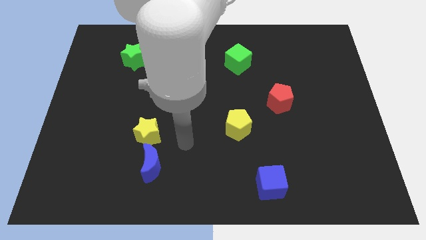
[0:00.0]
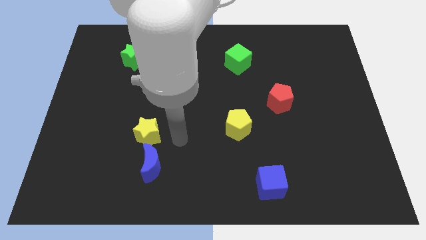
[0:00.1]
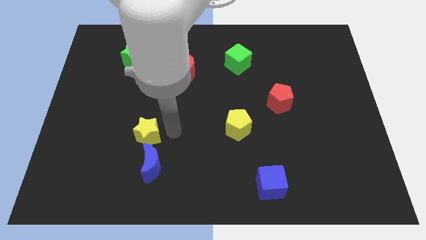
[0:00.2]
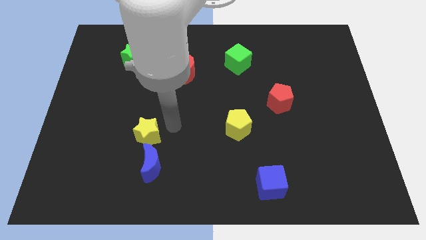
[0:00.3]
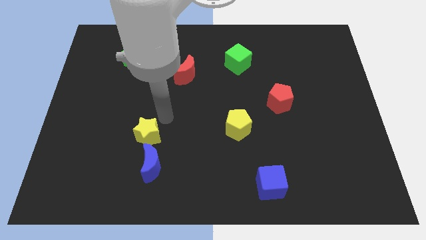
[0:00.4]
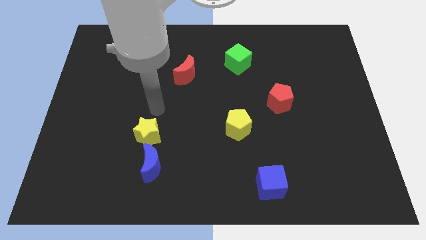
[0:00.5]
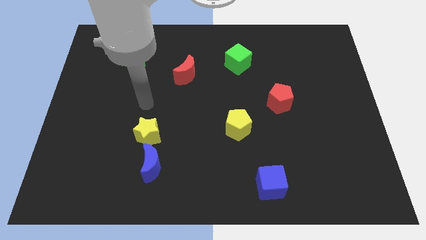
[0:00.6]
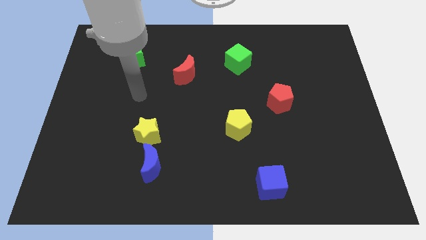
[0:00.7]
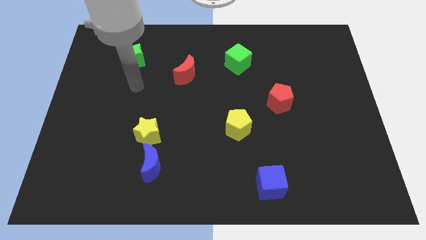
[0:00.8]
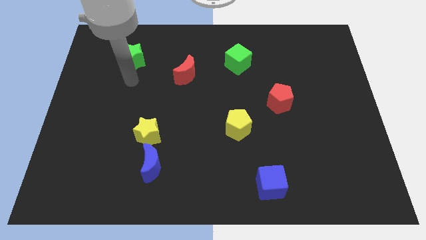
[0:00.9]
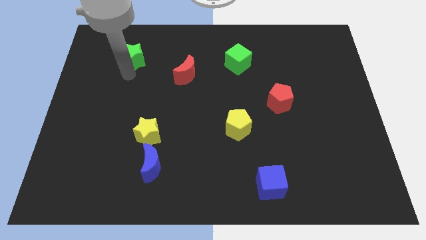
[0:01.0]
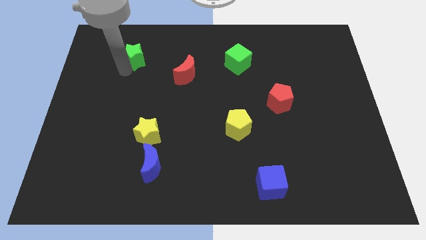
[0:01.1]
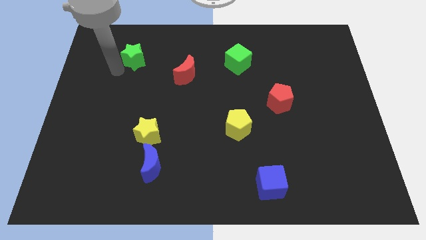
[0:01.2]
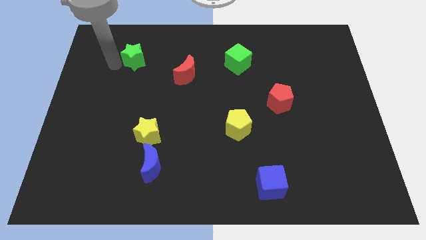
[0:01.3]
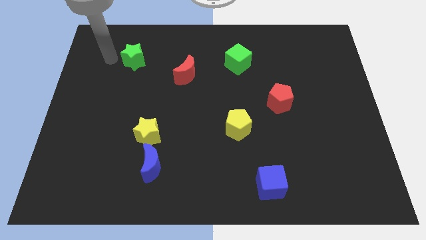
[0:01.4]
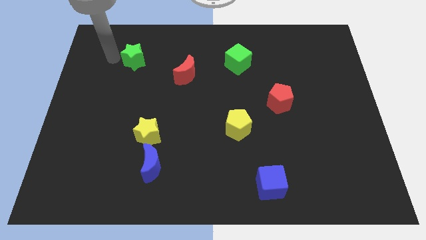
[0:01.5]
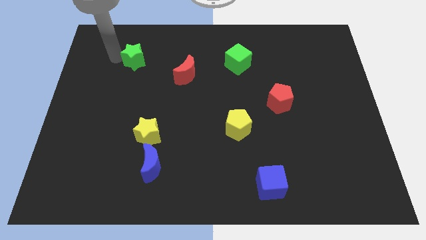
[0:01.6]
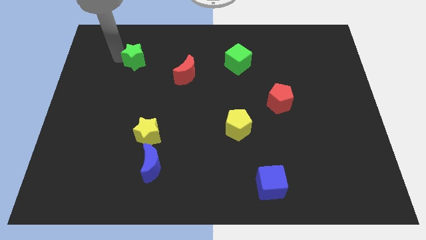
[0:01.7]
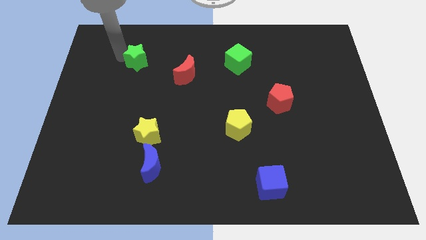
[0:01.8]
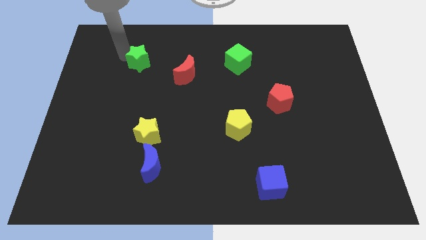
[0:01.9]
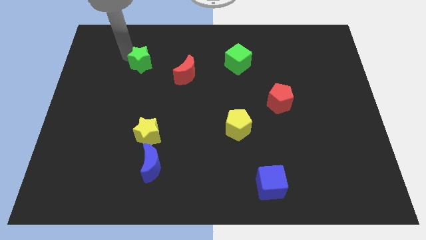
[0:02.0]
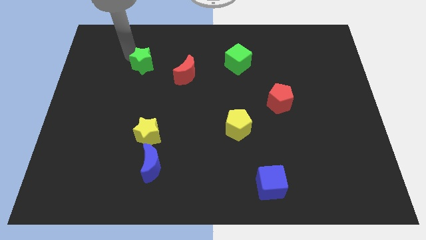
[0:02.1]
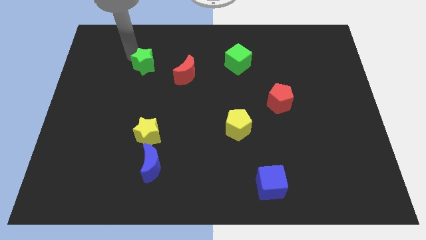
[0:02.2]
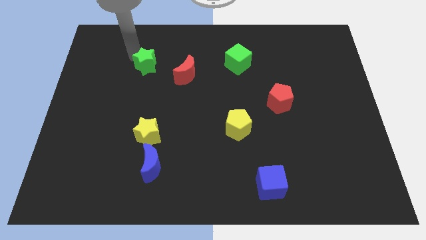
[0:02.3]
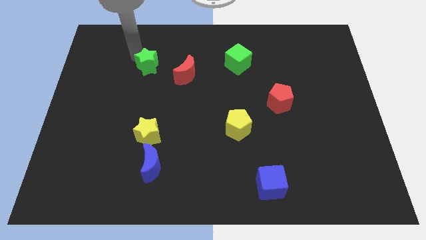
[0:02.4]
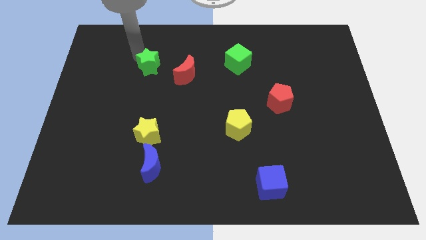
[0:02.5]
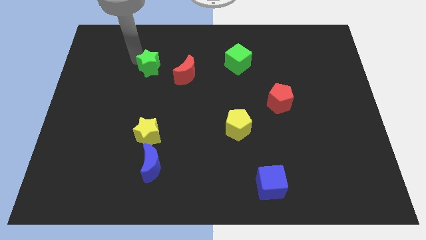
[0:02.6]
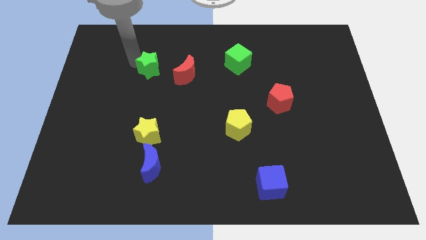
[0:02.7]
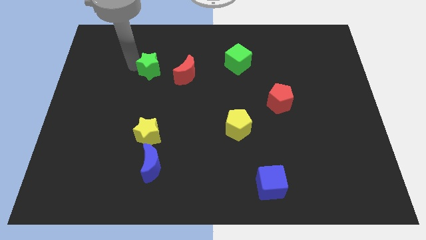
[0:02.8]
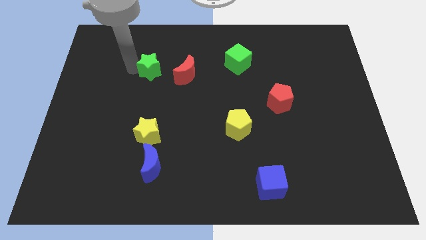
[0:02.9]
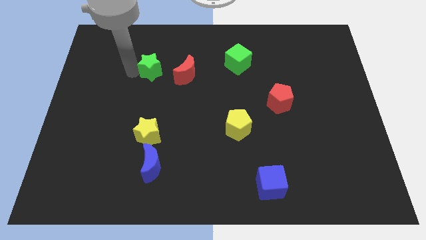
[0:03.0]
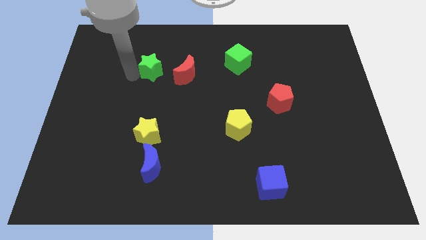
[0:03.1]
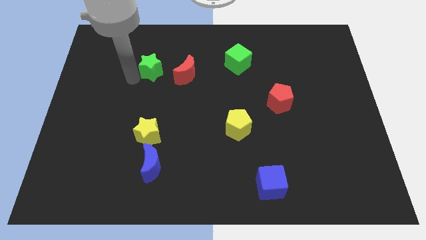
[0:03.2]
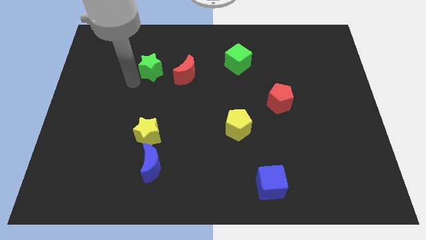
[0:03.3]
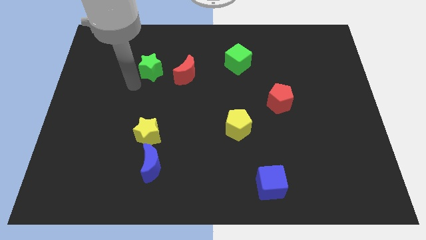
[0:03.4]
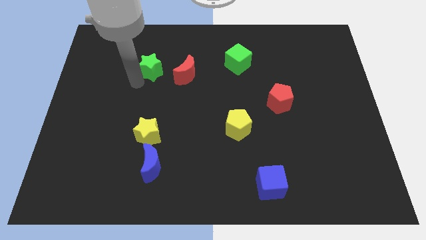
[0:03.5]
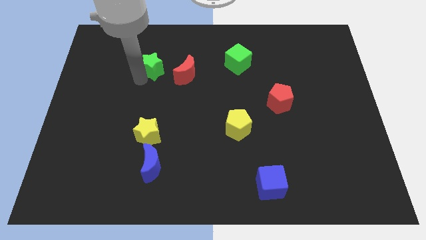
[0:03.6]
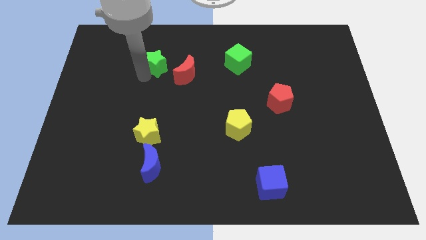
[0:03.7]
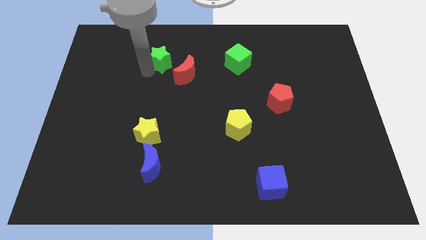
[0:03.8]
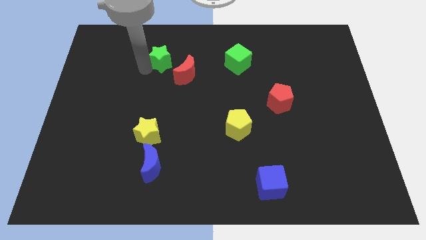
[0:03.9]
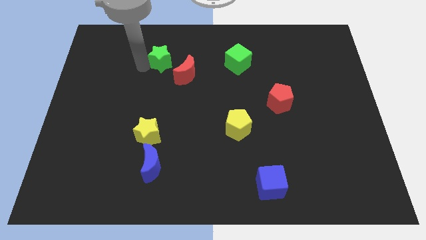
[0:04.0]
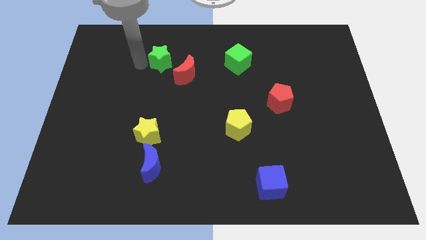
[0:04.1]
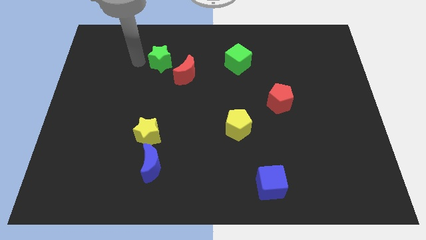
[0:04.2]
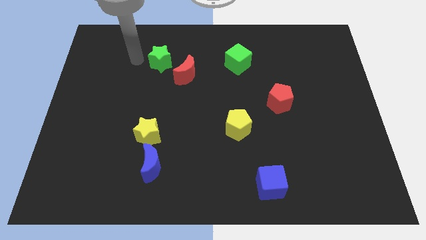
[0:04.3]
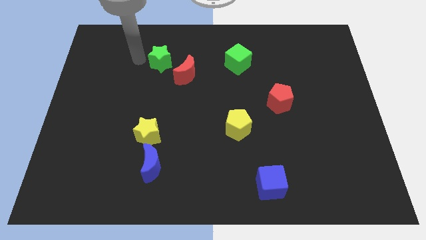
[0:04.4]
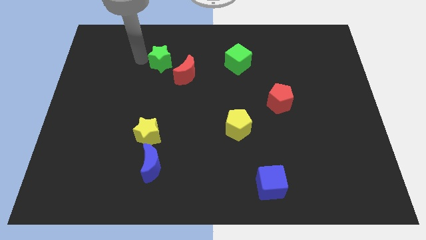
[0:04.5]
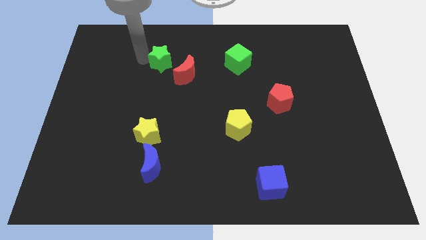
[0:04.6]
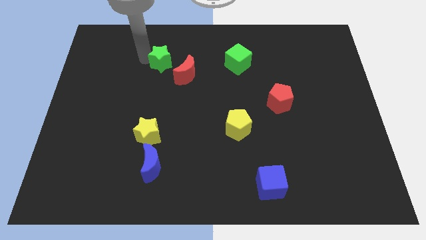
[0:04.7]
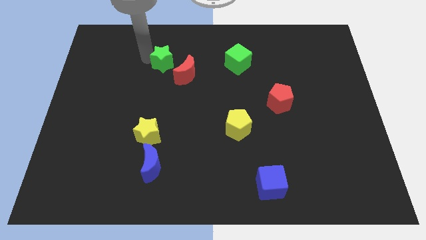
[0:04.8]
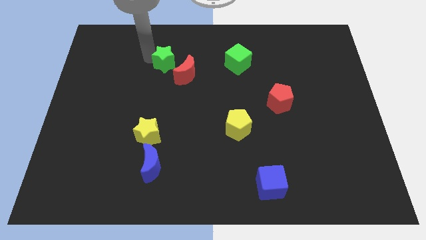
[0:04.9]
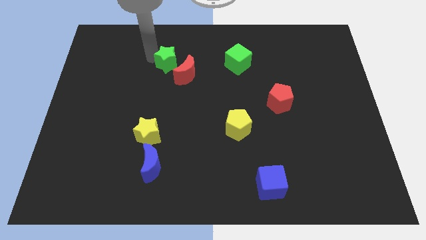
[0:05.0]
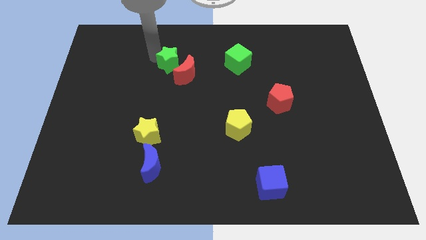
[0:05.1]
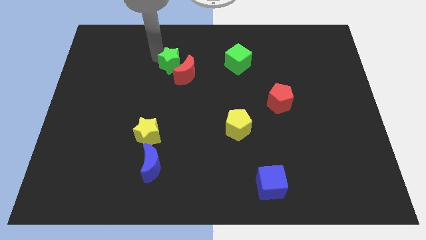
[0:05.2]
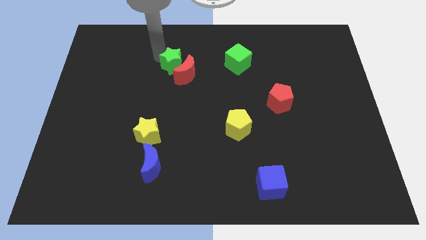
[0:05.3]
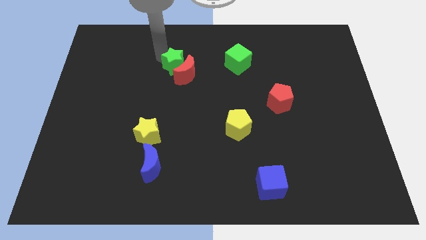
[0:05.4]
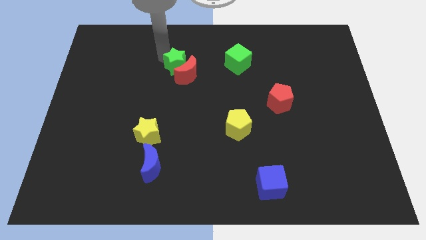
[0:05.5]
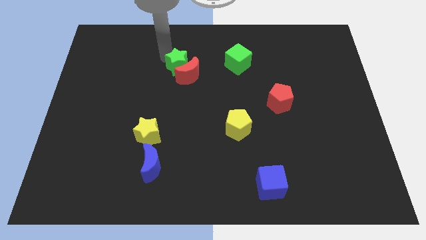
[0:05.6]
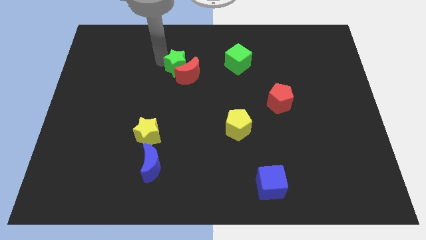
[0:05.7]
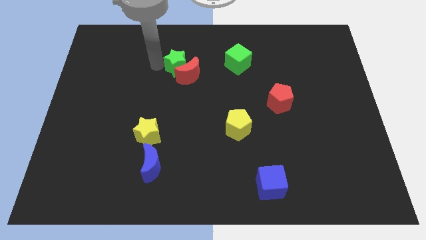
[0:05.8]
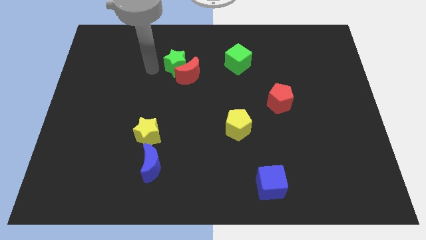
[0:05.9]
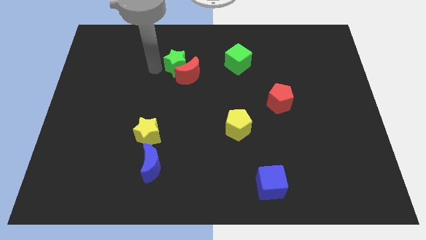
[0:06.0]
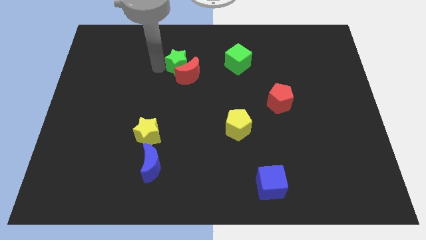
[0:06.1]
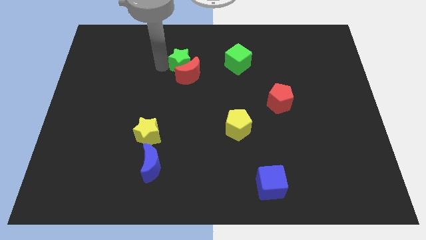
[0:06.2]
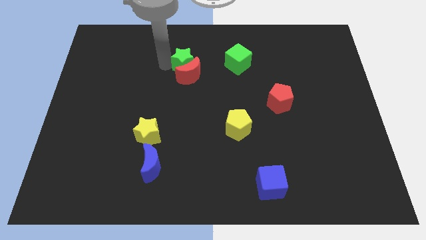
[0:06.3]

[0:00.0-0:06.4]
put the green star diagonally up and to the right of the red moon

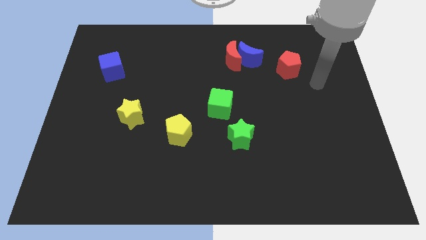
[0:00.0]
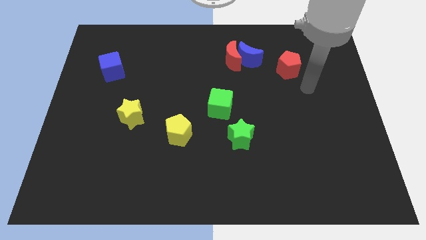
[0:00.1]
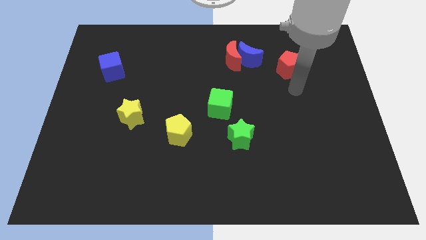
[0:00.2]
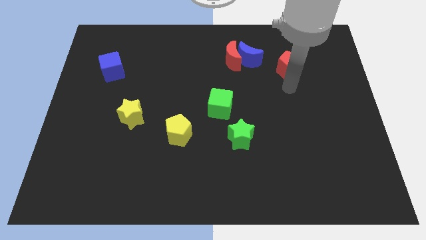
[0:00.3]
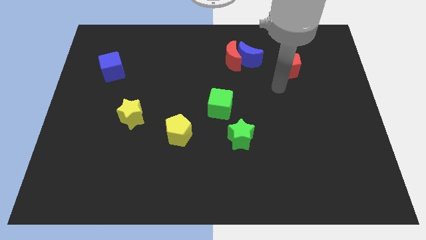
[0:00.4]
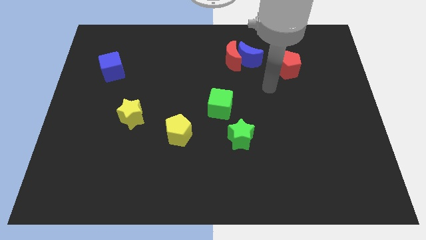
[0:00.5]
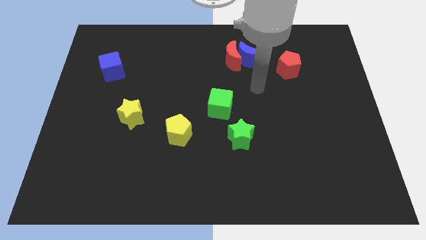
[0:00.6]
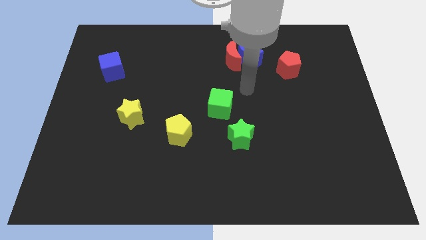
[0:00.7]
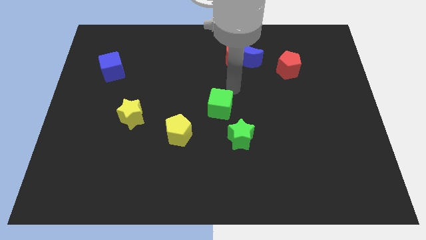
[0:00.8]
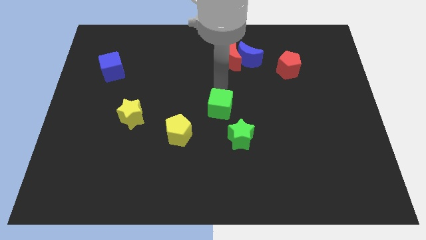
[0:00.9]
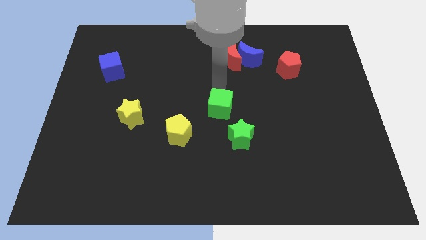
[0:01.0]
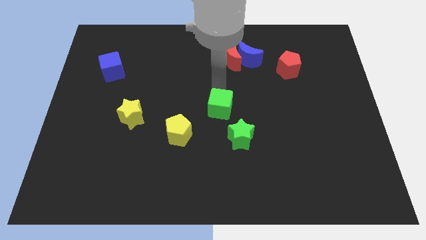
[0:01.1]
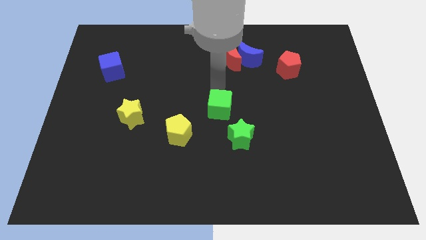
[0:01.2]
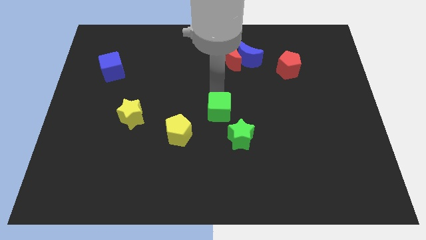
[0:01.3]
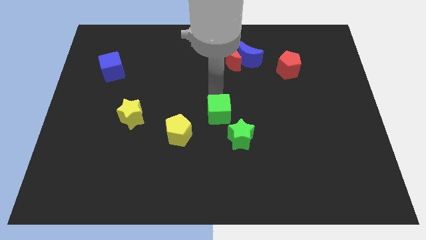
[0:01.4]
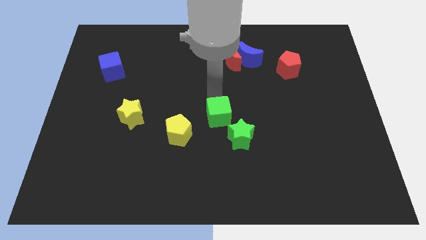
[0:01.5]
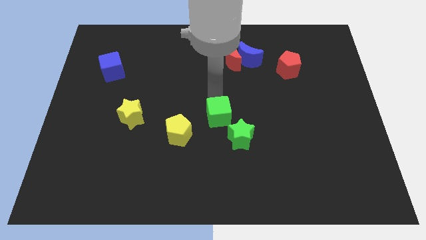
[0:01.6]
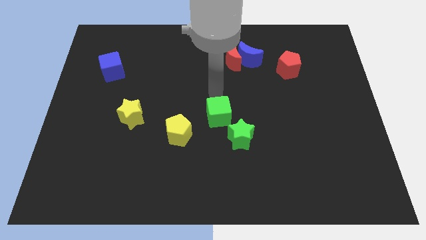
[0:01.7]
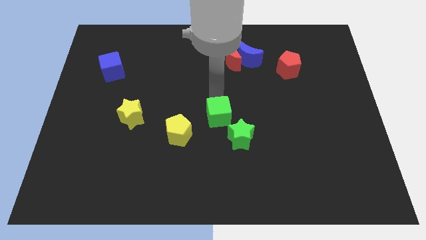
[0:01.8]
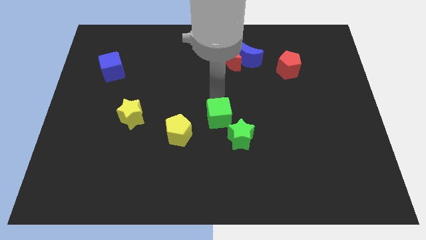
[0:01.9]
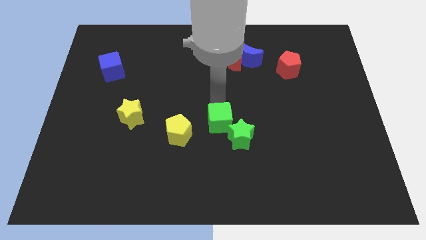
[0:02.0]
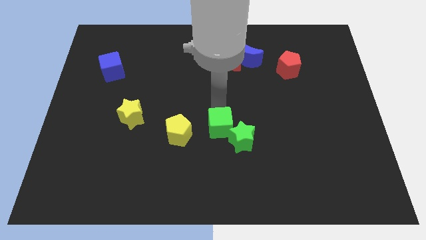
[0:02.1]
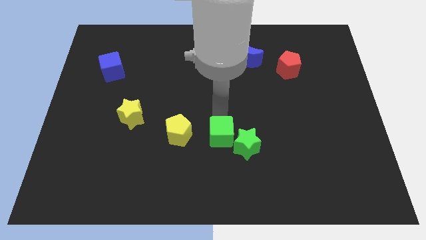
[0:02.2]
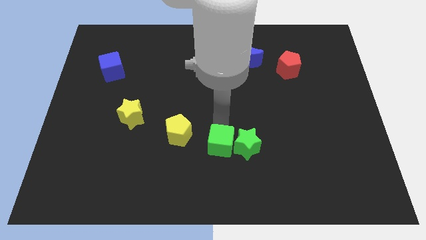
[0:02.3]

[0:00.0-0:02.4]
put the green cube to the bottom left of the green star
